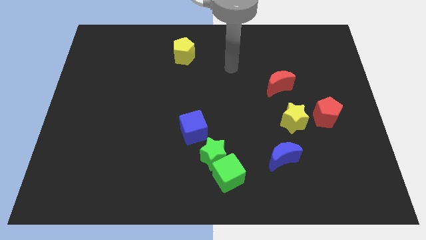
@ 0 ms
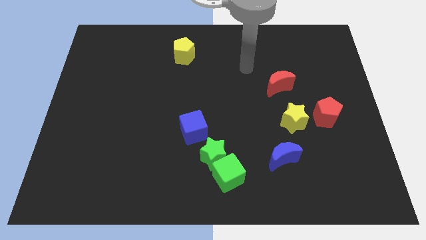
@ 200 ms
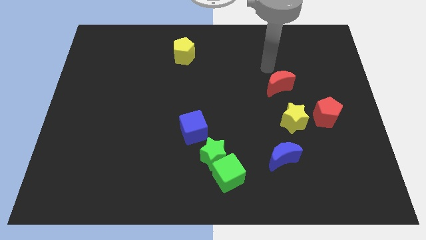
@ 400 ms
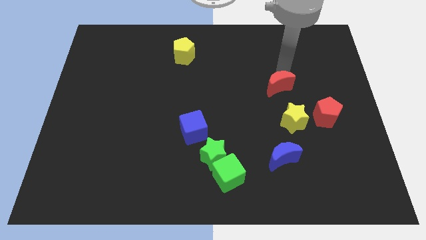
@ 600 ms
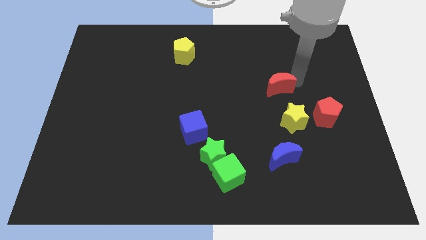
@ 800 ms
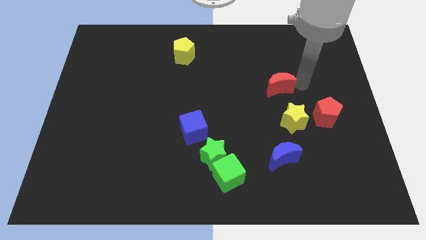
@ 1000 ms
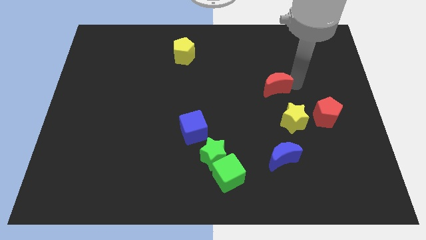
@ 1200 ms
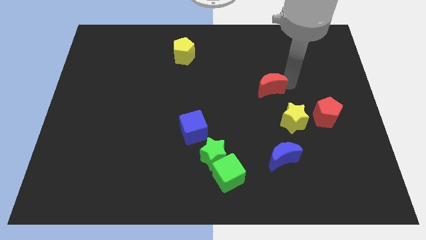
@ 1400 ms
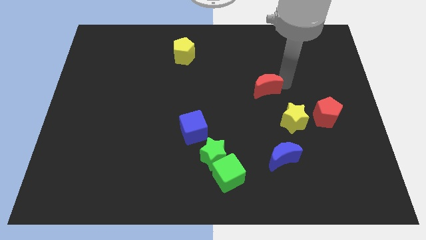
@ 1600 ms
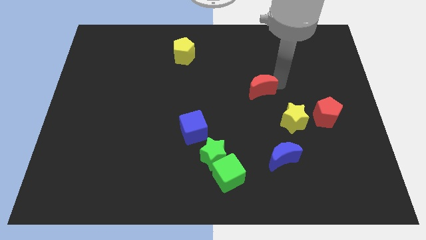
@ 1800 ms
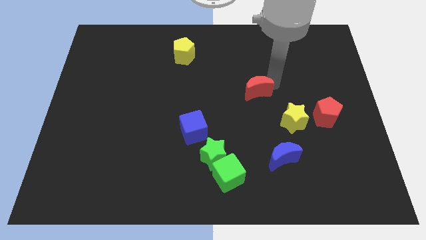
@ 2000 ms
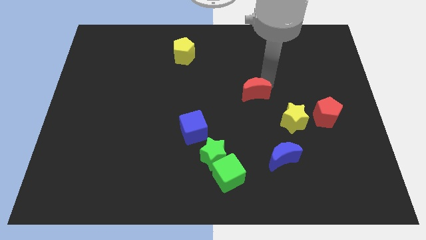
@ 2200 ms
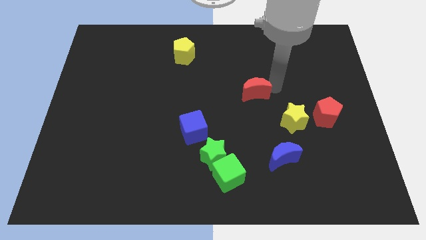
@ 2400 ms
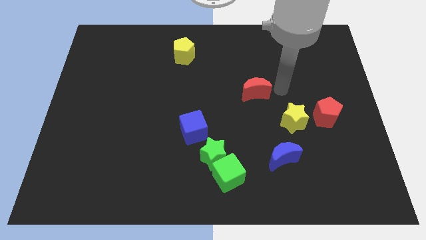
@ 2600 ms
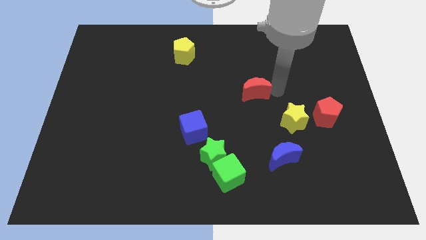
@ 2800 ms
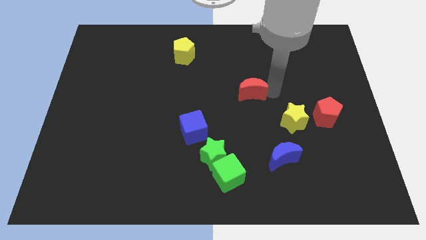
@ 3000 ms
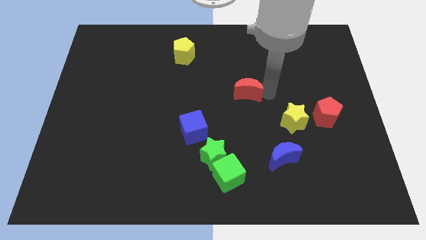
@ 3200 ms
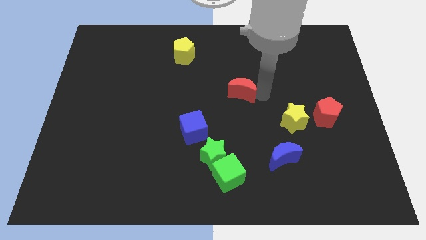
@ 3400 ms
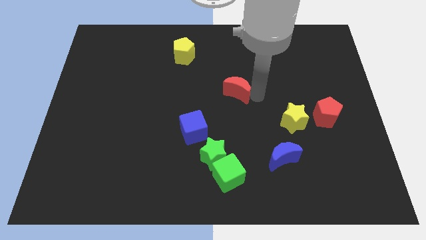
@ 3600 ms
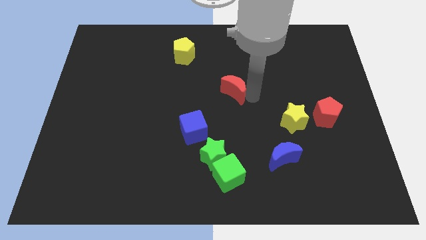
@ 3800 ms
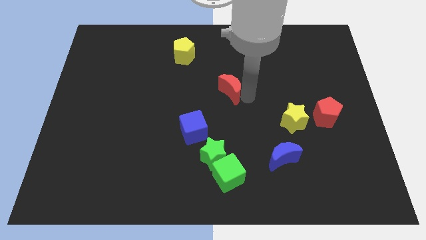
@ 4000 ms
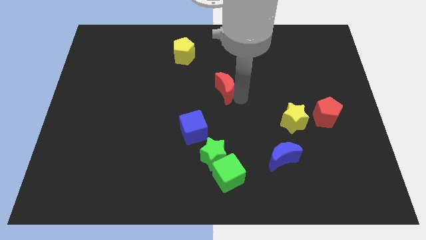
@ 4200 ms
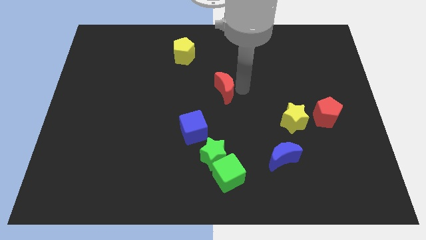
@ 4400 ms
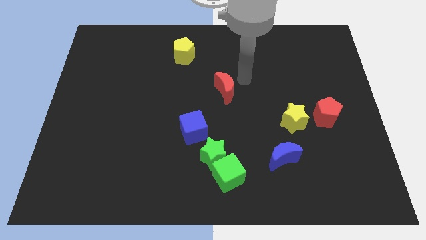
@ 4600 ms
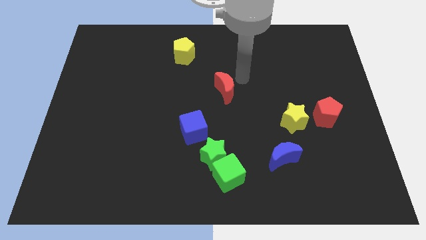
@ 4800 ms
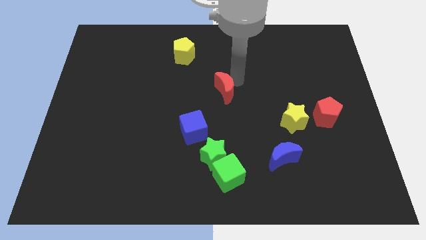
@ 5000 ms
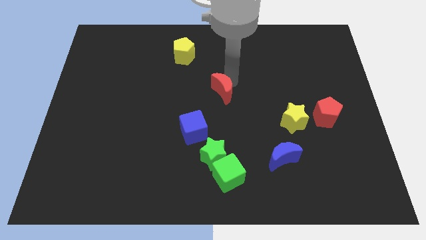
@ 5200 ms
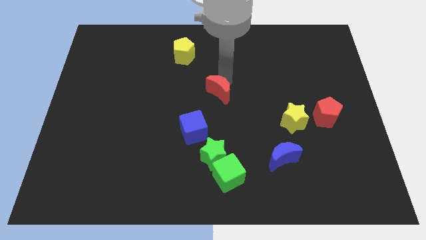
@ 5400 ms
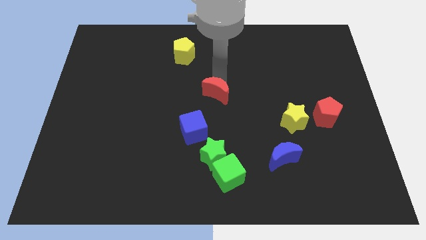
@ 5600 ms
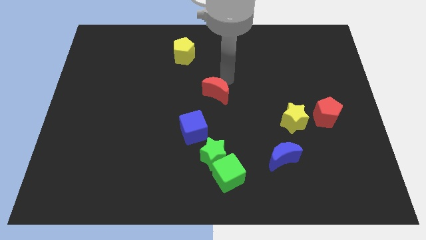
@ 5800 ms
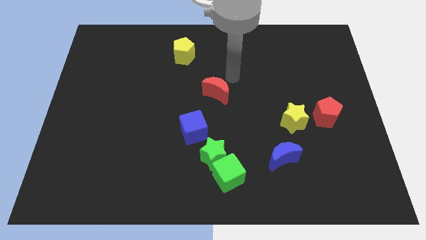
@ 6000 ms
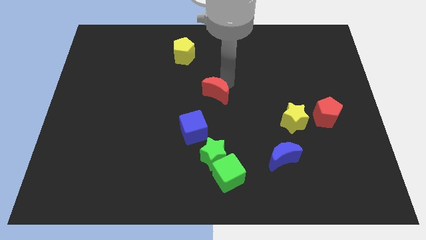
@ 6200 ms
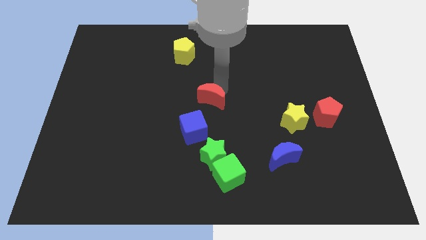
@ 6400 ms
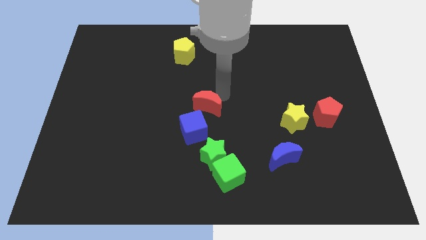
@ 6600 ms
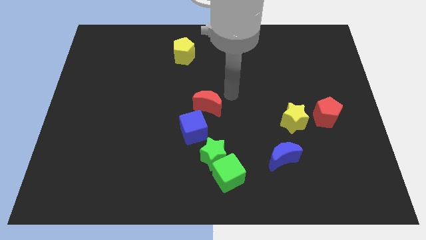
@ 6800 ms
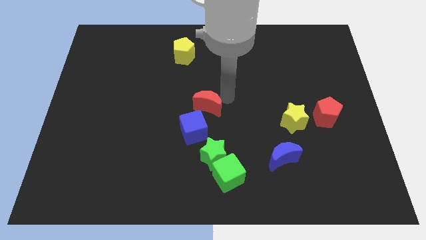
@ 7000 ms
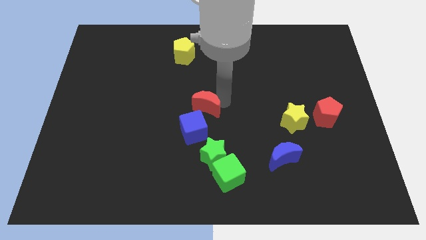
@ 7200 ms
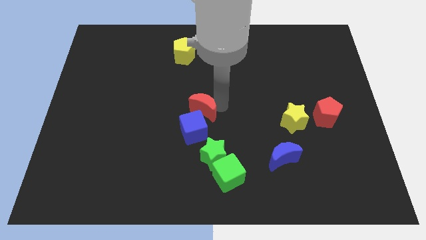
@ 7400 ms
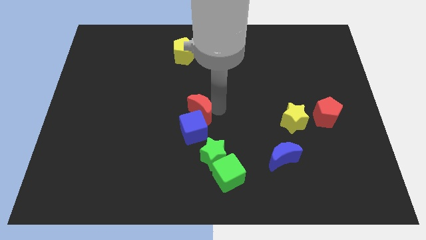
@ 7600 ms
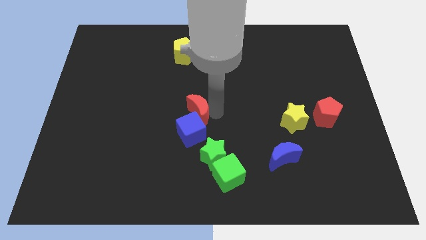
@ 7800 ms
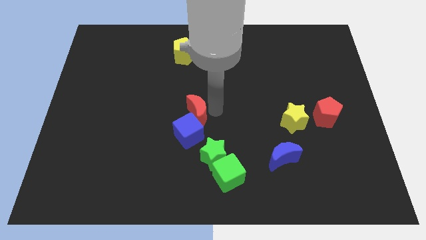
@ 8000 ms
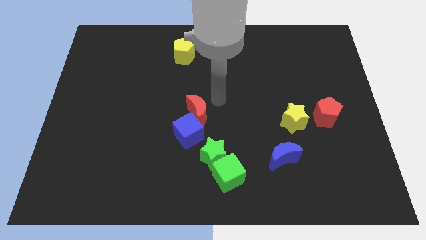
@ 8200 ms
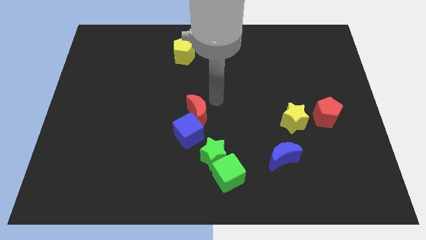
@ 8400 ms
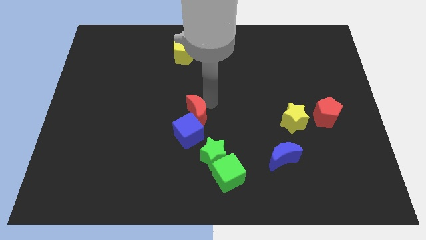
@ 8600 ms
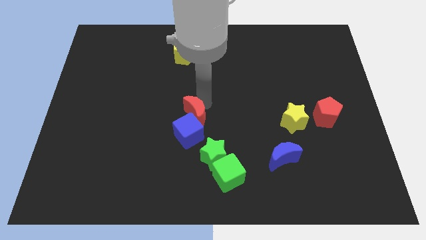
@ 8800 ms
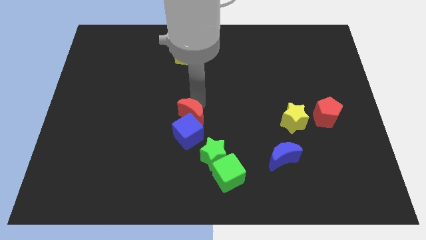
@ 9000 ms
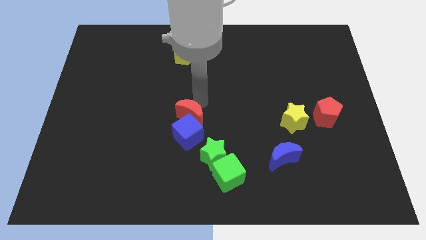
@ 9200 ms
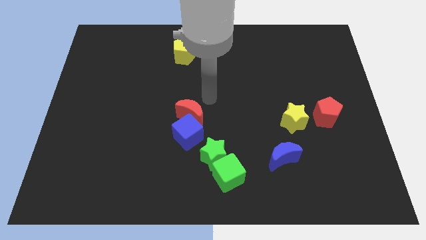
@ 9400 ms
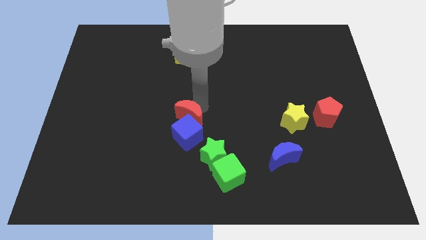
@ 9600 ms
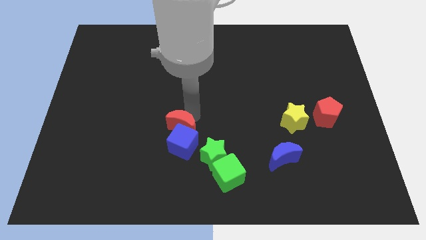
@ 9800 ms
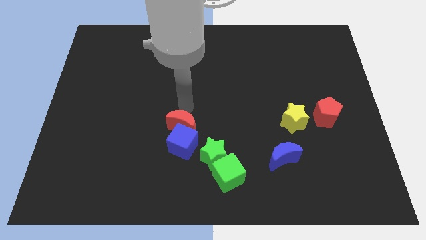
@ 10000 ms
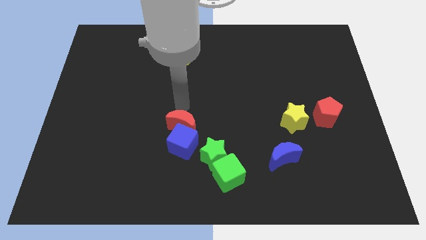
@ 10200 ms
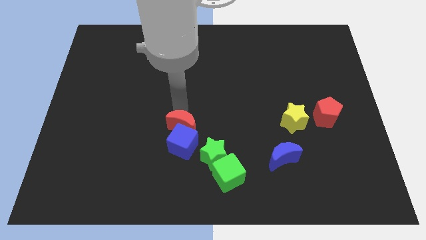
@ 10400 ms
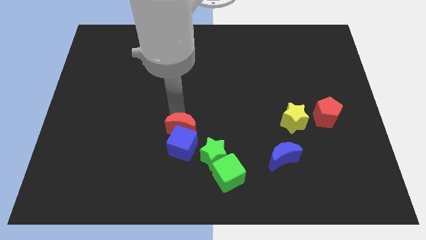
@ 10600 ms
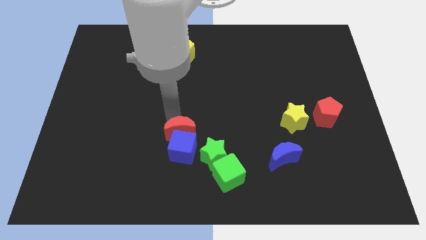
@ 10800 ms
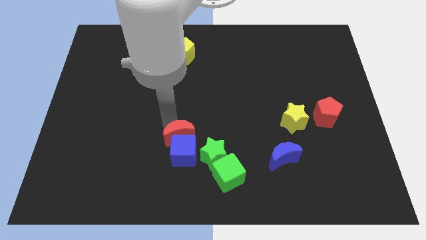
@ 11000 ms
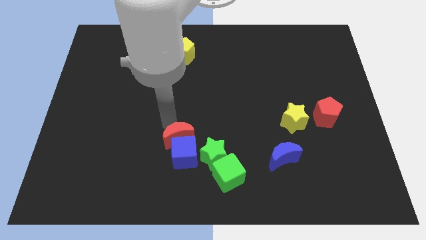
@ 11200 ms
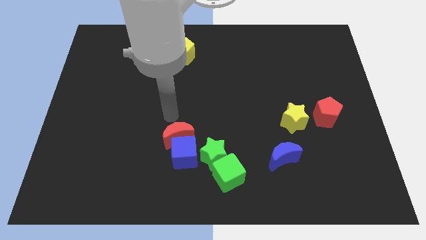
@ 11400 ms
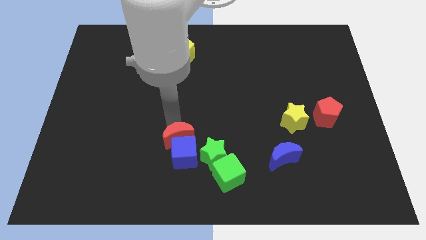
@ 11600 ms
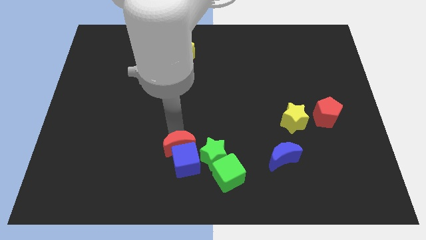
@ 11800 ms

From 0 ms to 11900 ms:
move the red moon diagonally up and to the left of the green cube

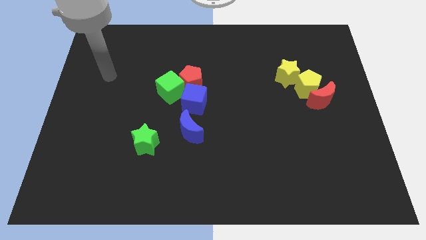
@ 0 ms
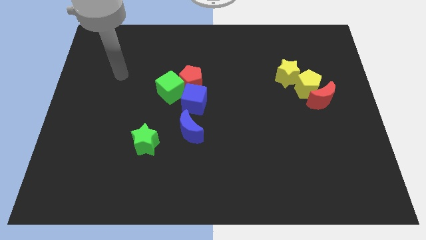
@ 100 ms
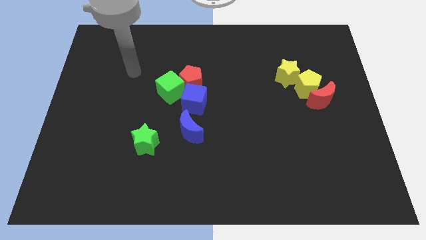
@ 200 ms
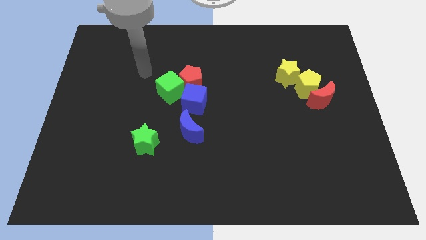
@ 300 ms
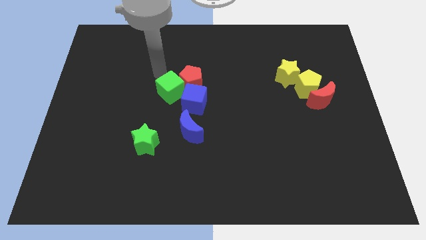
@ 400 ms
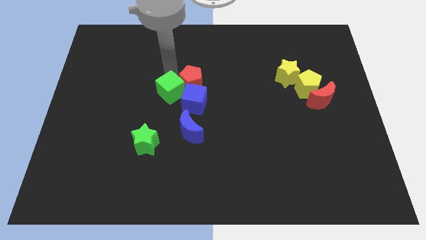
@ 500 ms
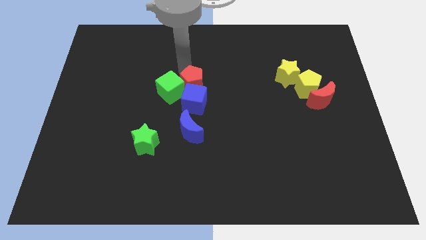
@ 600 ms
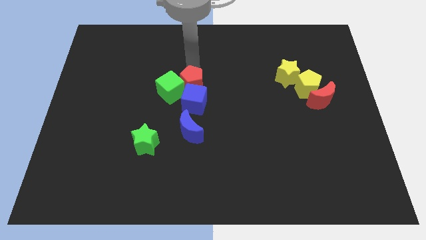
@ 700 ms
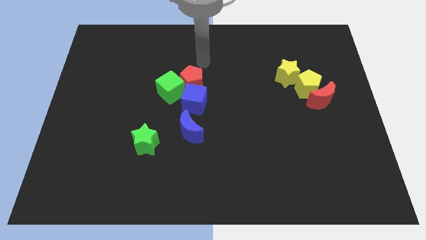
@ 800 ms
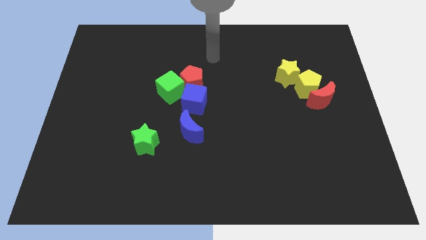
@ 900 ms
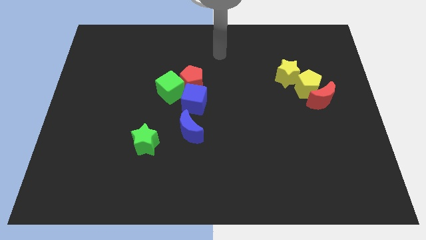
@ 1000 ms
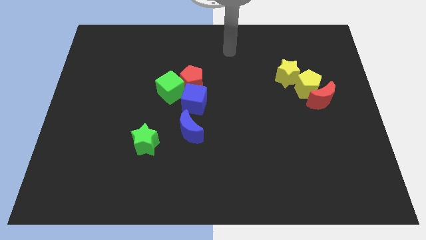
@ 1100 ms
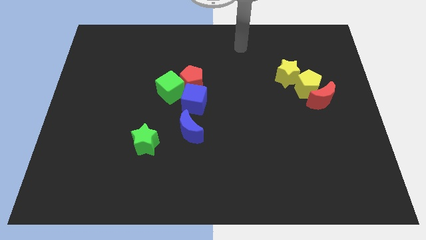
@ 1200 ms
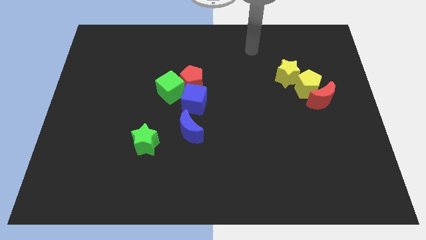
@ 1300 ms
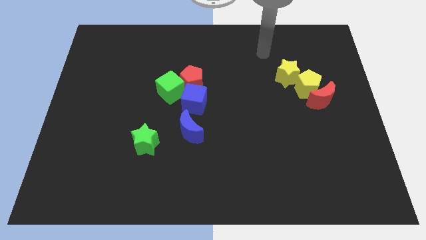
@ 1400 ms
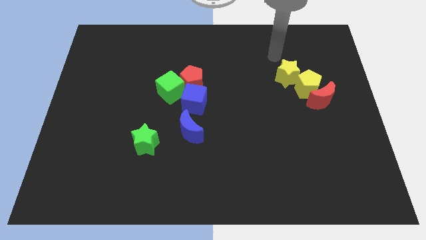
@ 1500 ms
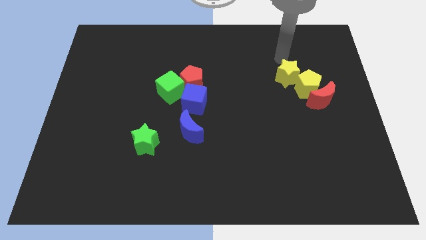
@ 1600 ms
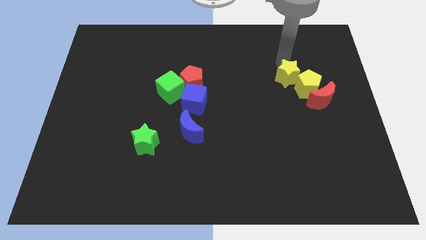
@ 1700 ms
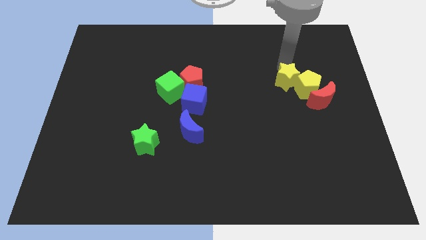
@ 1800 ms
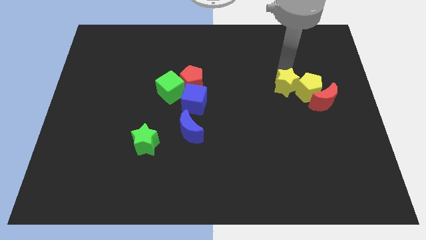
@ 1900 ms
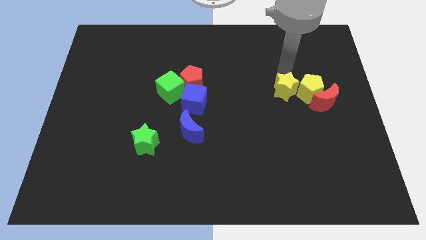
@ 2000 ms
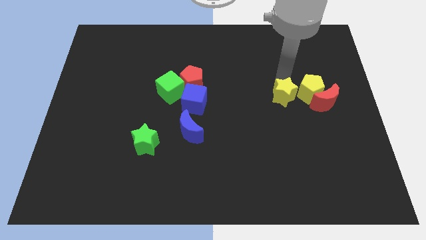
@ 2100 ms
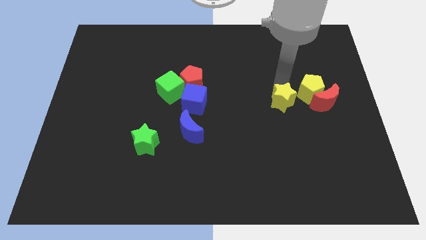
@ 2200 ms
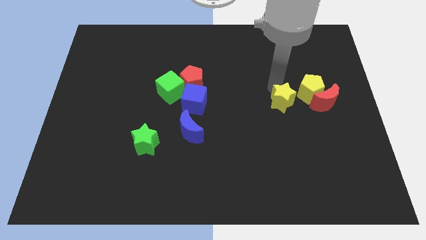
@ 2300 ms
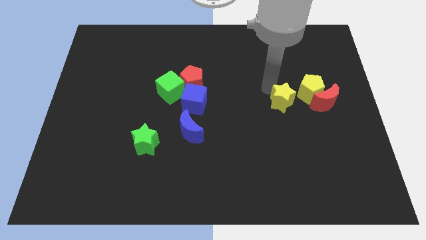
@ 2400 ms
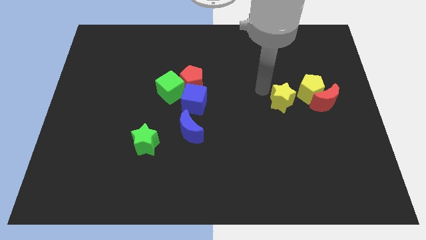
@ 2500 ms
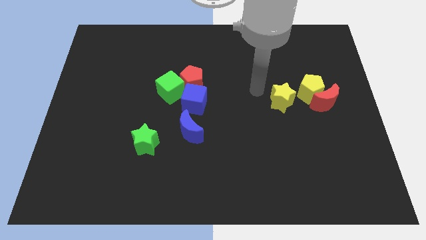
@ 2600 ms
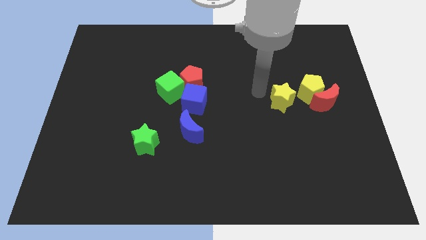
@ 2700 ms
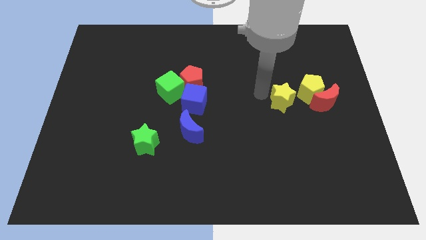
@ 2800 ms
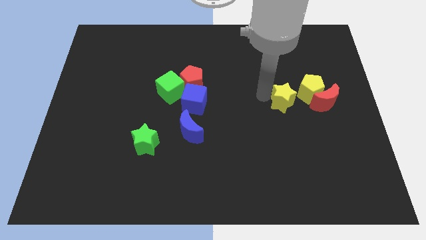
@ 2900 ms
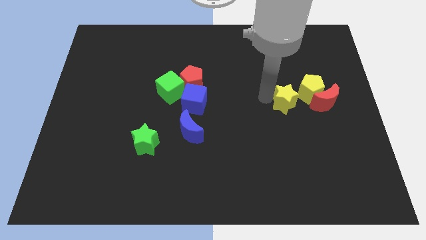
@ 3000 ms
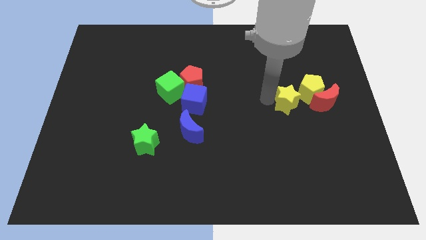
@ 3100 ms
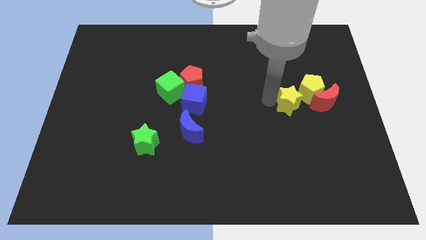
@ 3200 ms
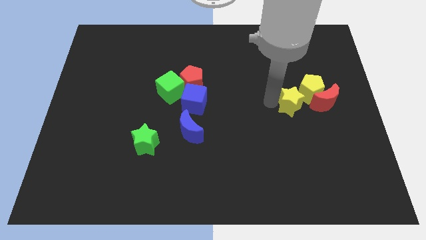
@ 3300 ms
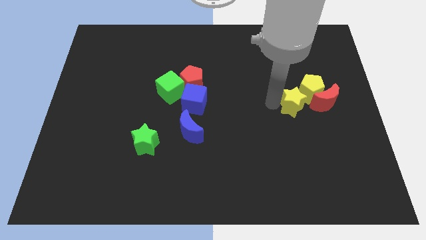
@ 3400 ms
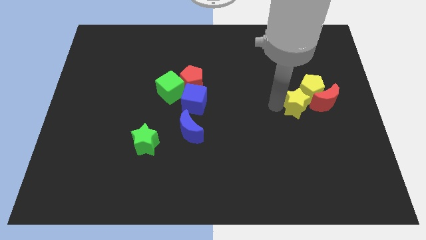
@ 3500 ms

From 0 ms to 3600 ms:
move the yellow star below the yellow pentagon
